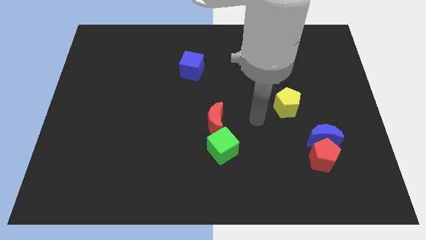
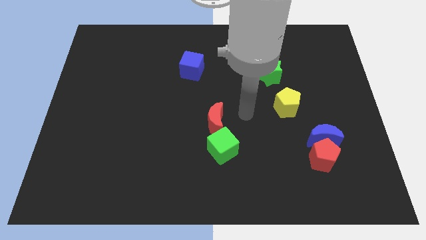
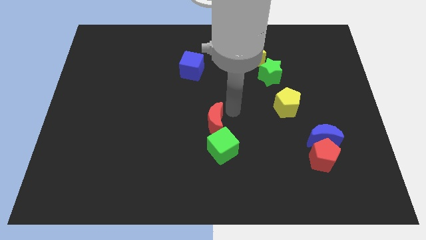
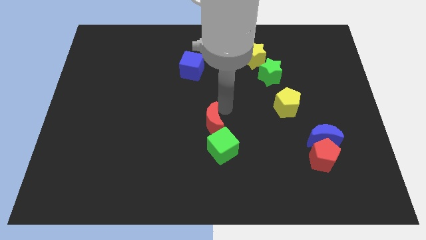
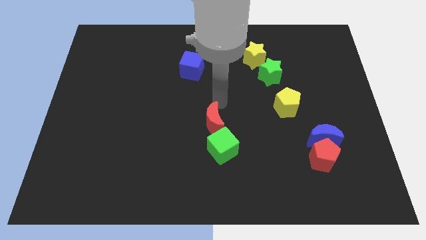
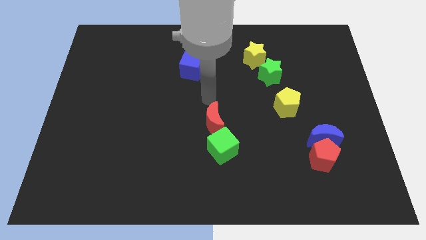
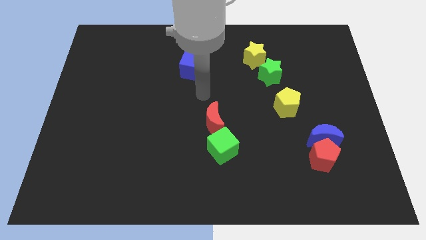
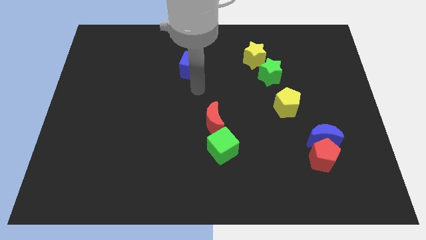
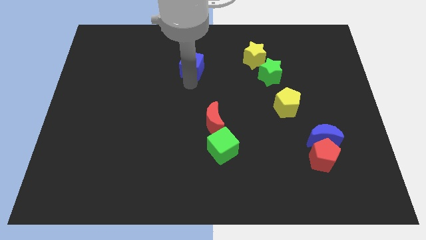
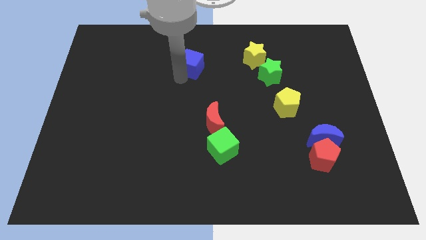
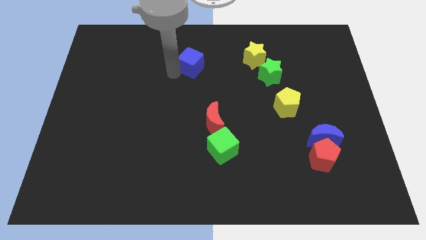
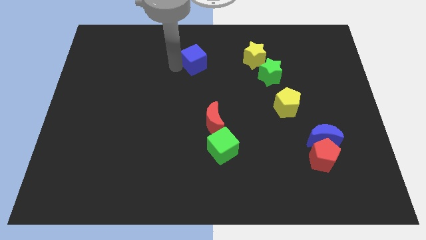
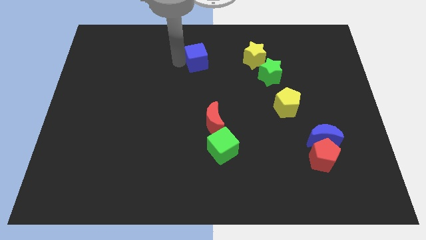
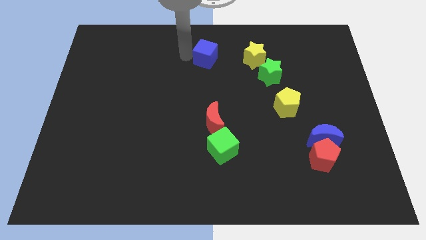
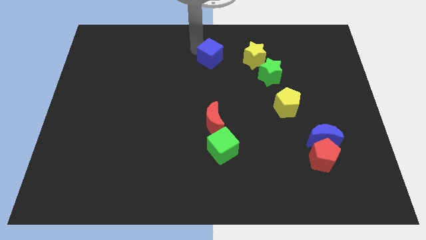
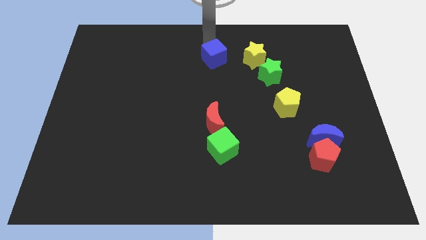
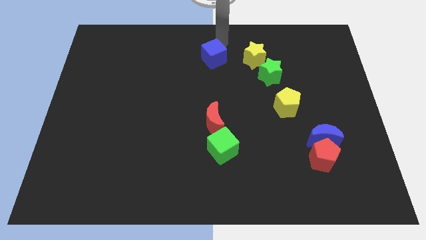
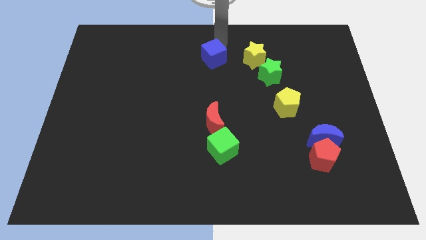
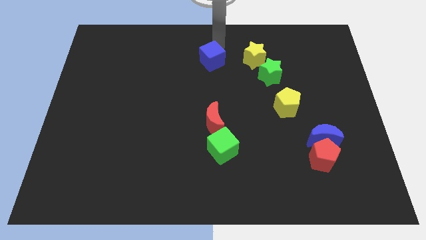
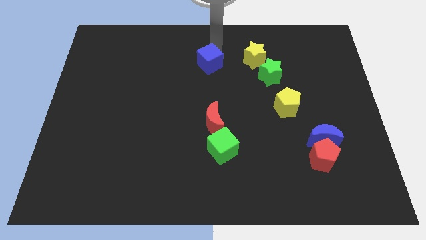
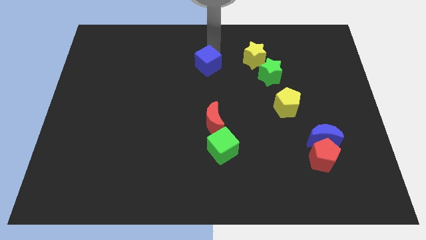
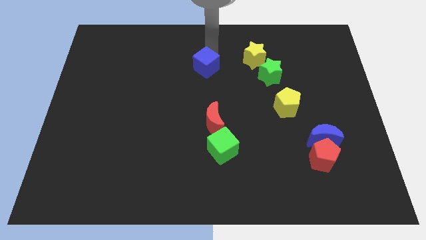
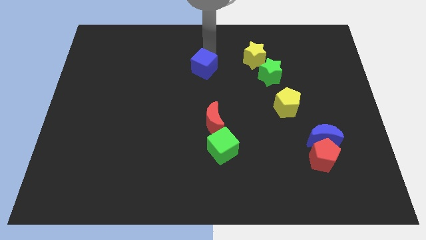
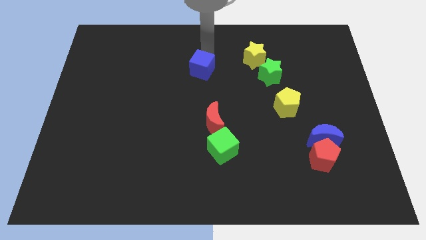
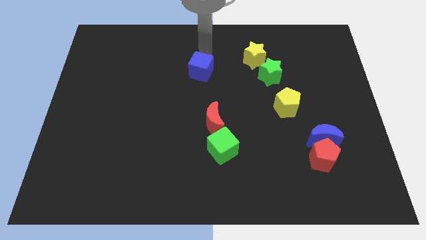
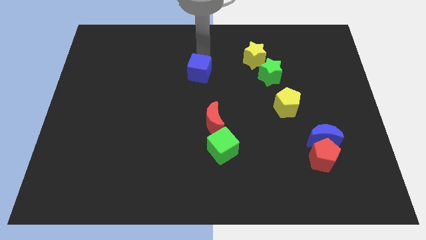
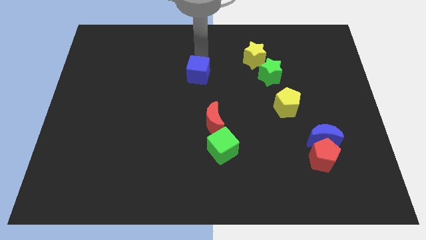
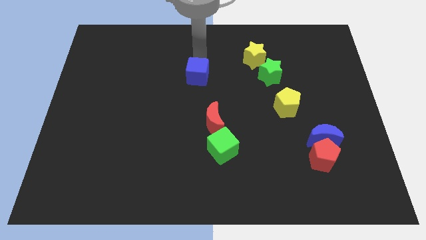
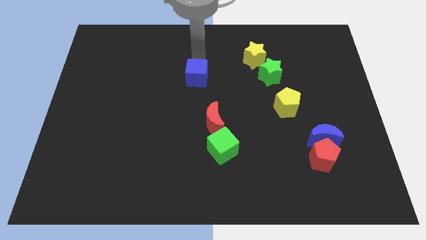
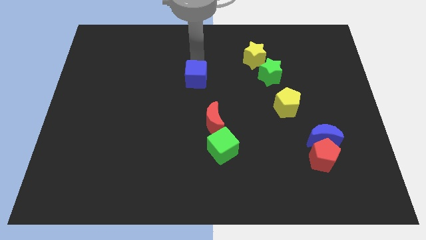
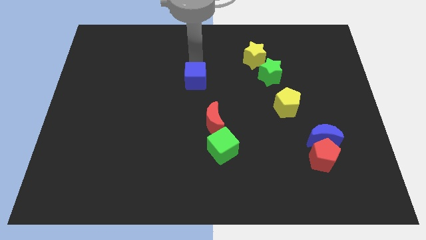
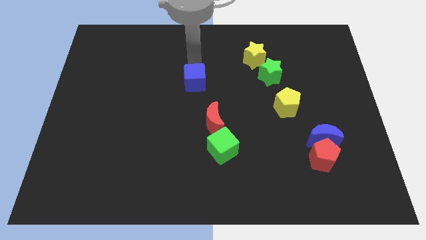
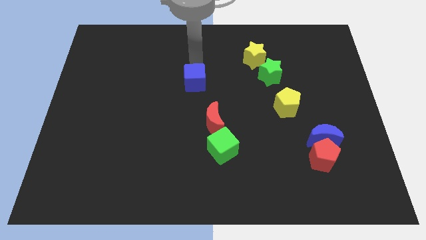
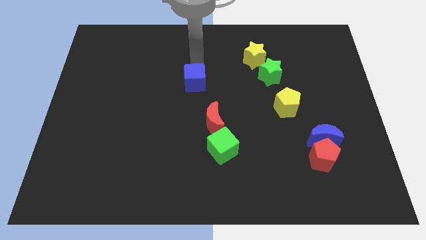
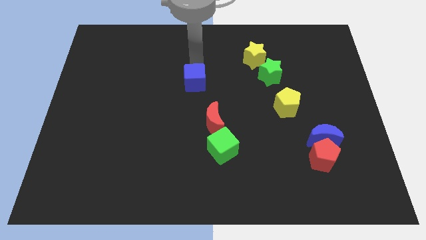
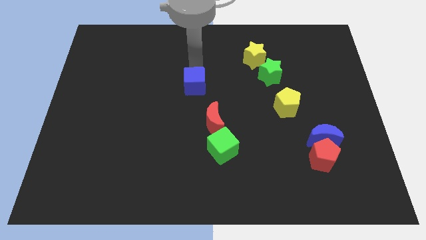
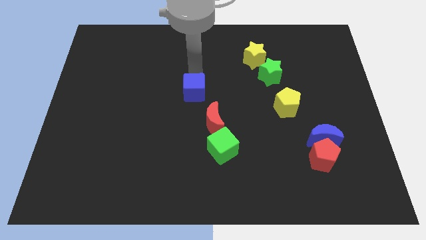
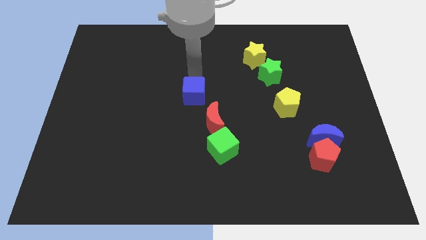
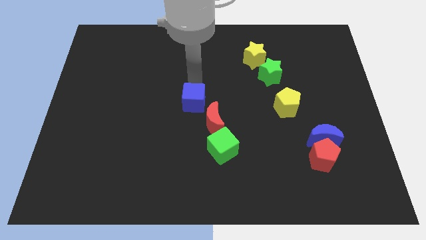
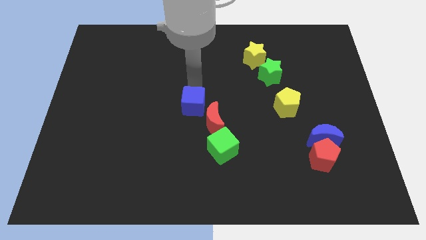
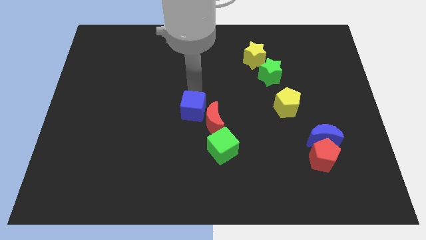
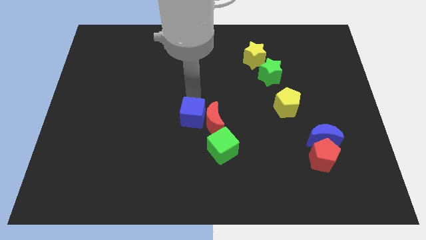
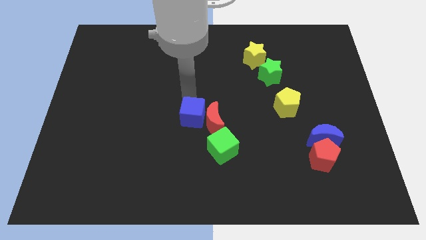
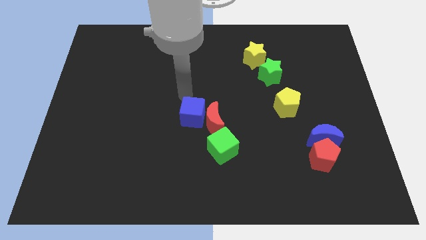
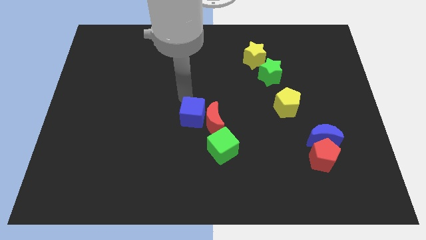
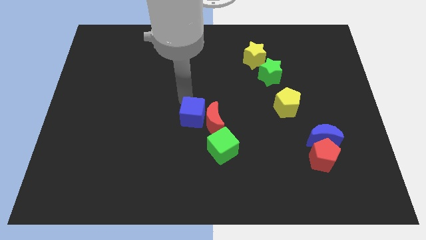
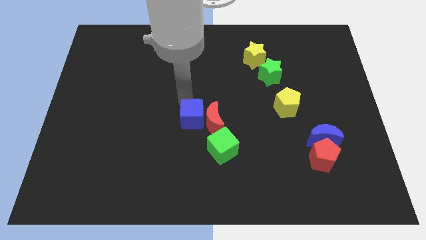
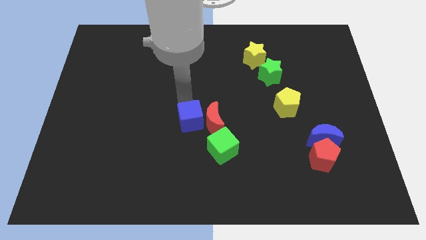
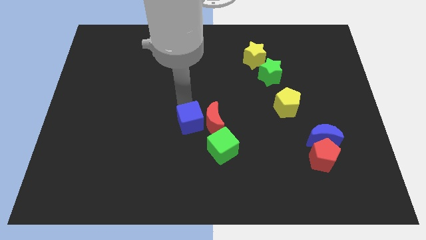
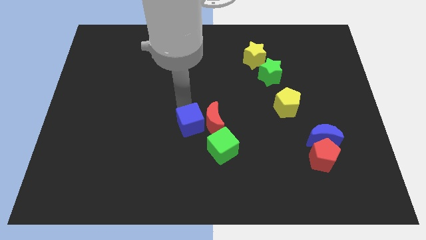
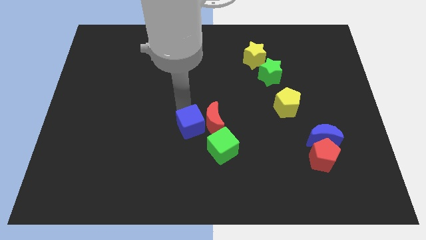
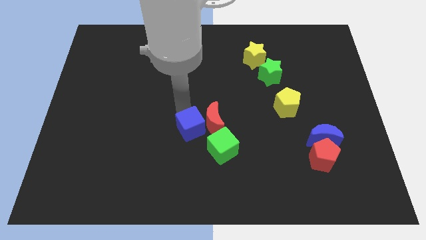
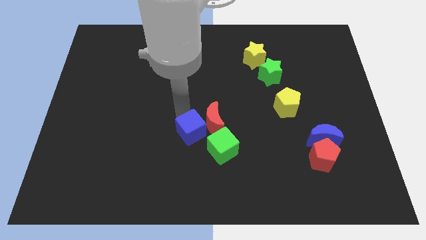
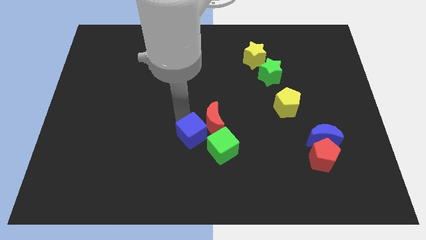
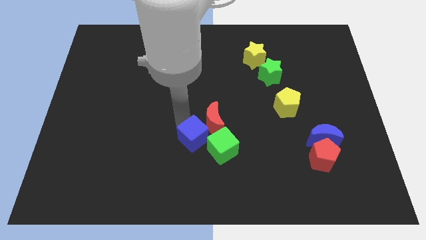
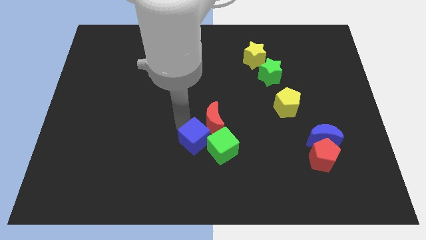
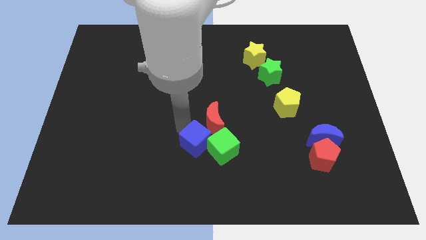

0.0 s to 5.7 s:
move the blue cube next to the green cube

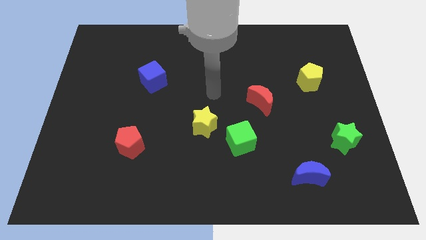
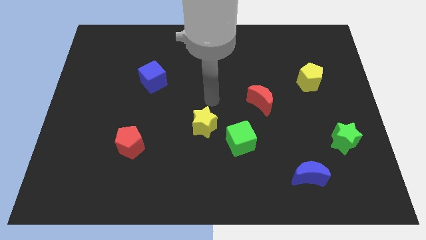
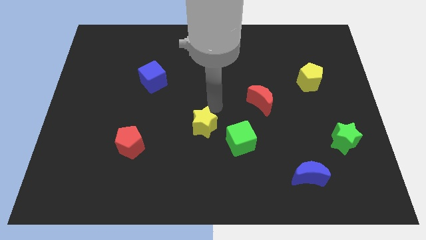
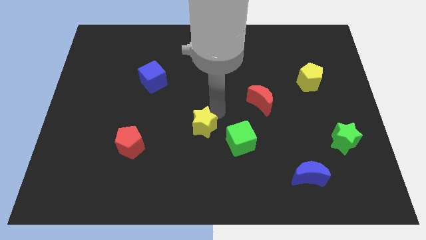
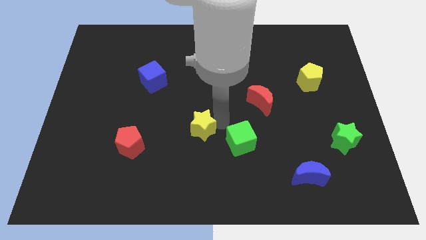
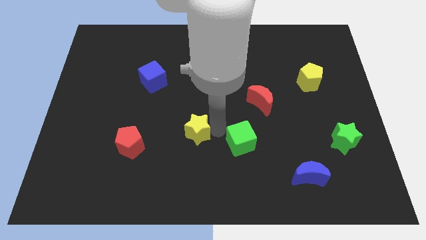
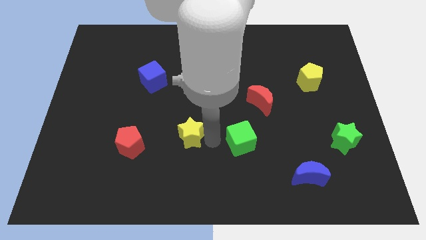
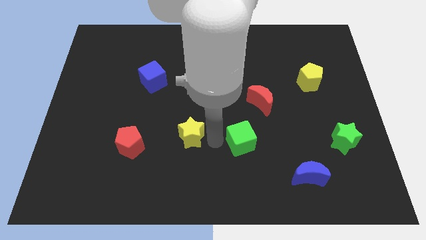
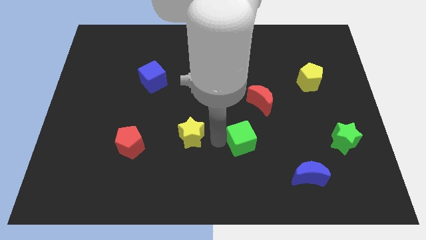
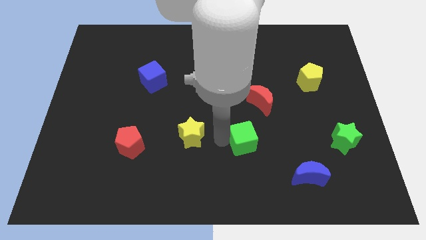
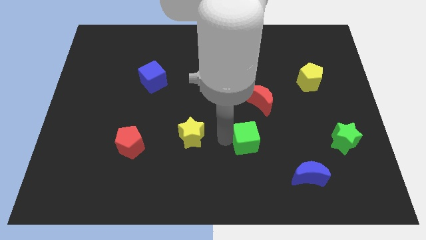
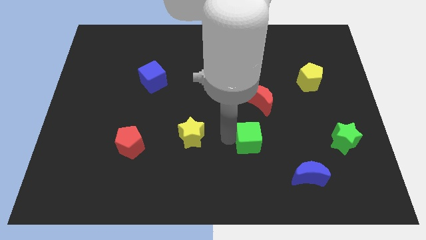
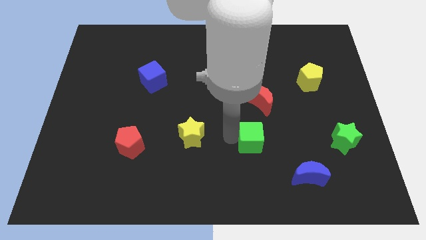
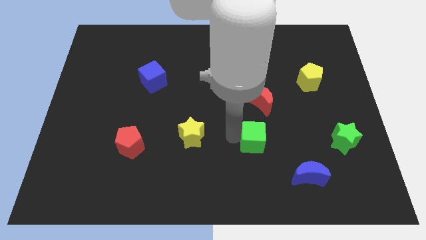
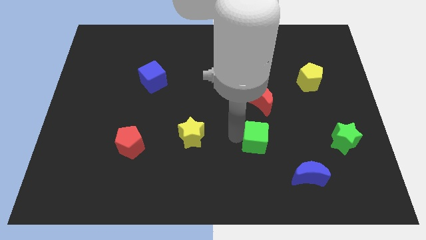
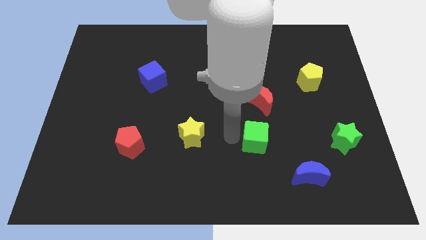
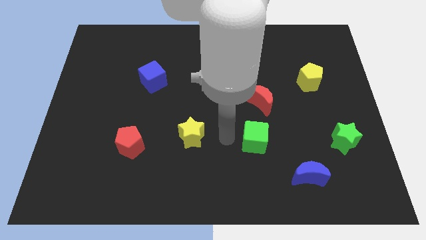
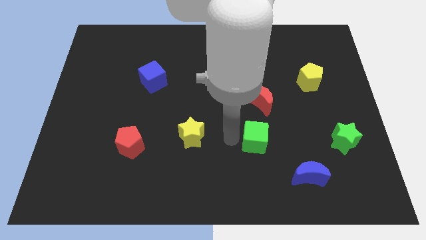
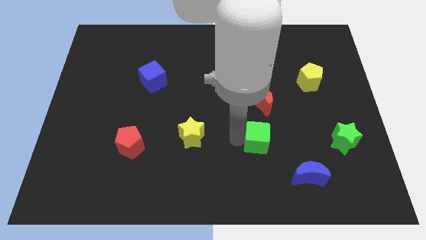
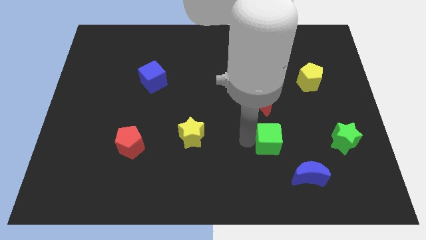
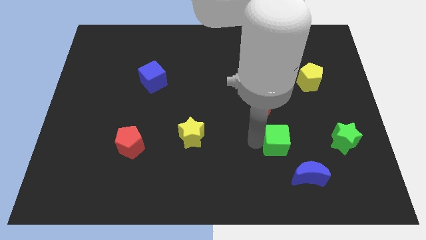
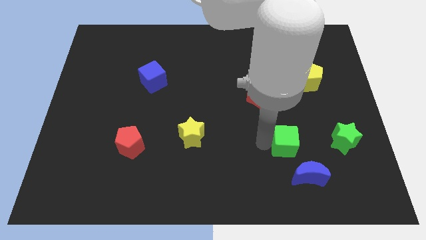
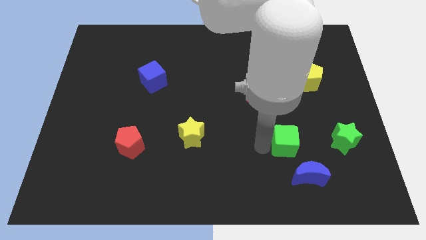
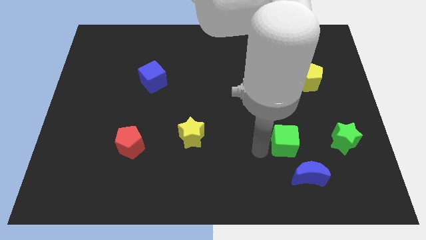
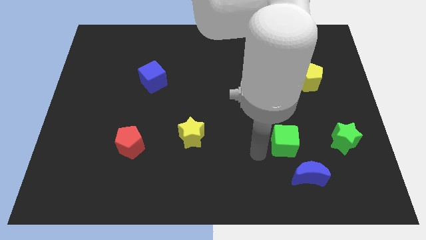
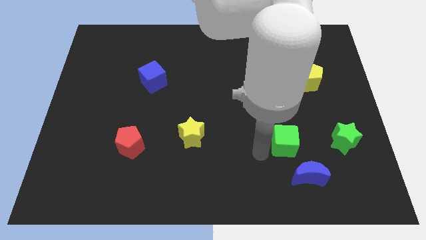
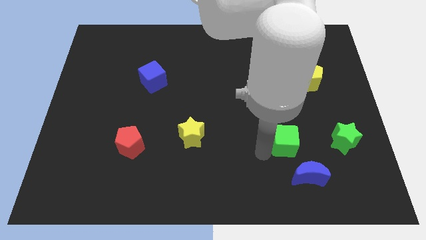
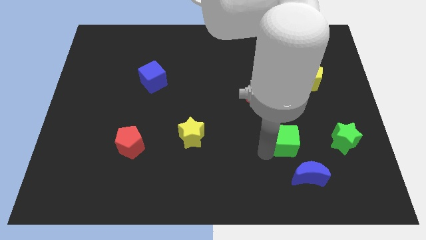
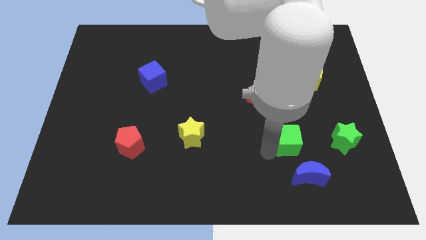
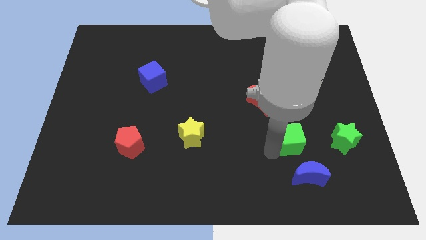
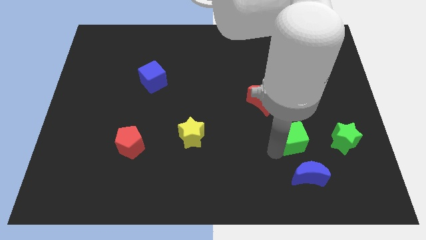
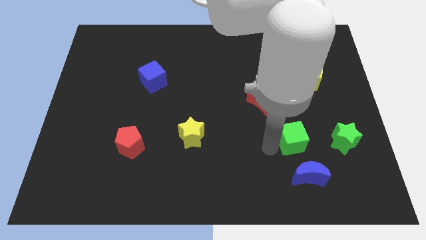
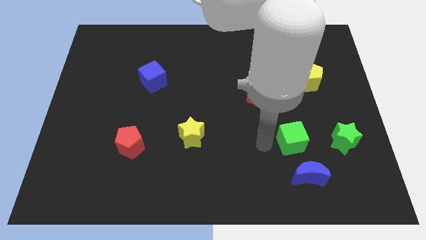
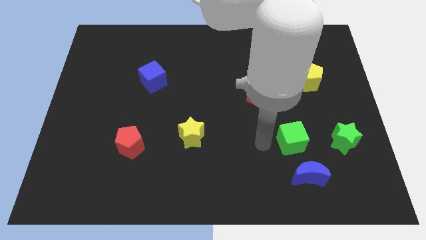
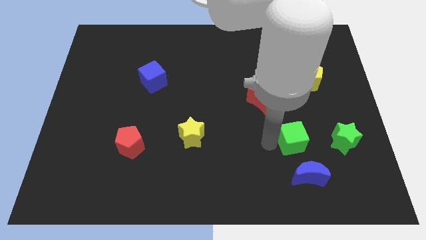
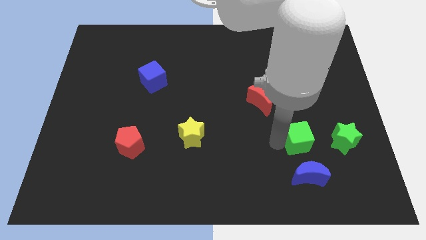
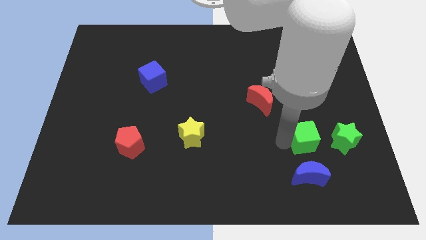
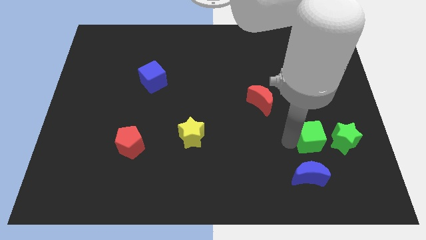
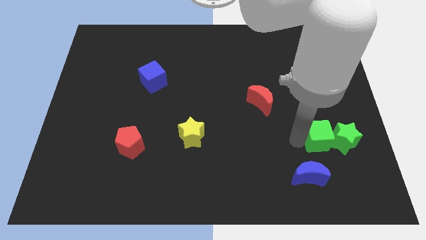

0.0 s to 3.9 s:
put the green cube close to the green star
